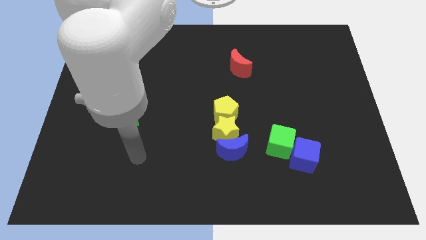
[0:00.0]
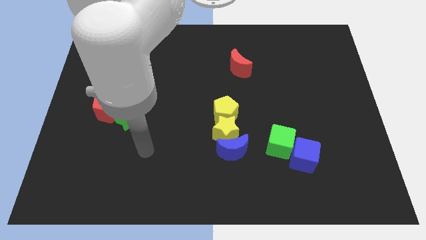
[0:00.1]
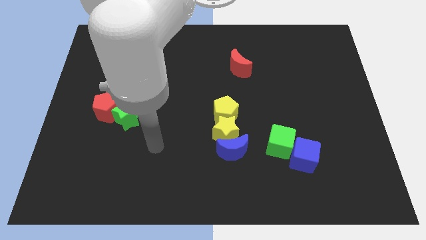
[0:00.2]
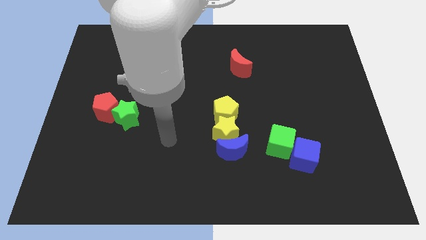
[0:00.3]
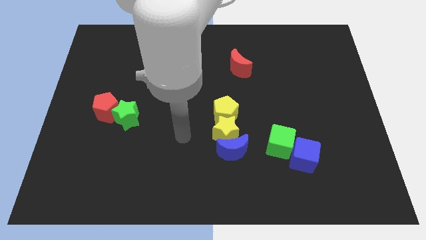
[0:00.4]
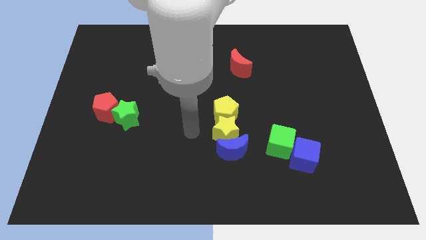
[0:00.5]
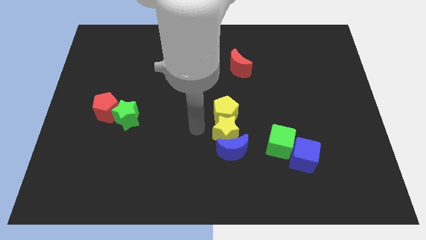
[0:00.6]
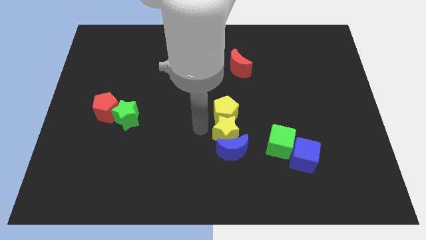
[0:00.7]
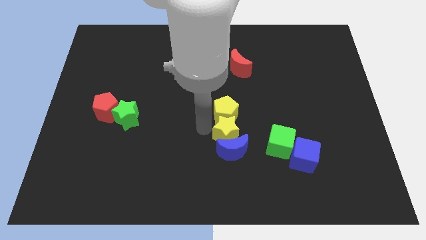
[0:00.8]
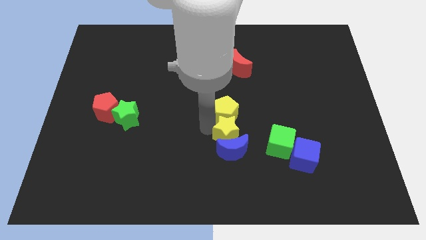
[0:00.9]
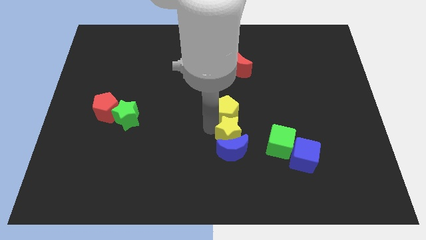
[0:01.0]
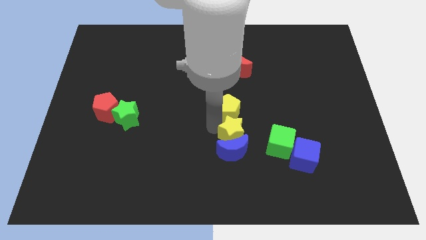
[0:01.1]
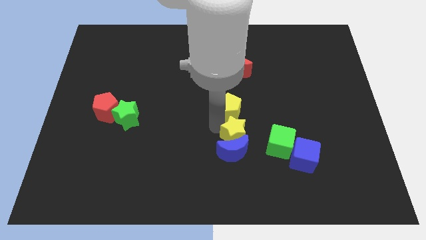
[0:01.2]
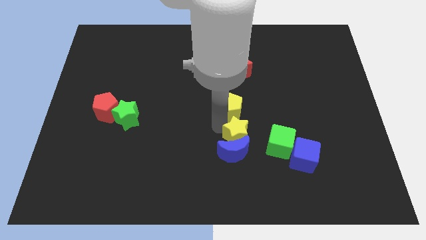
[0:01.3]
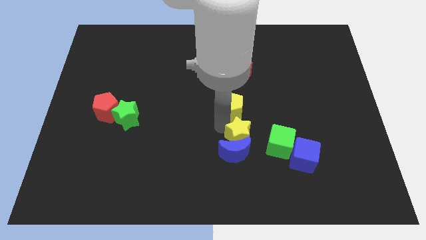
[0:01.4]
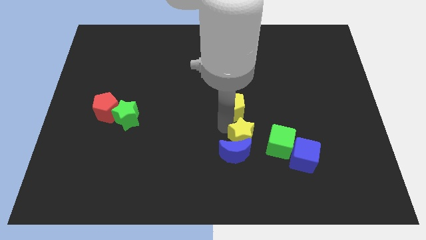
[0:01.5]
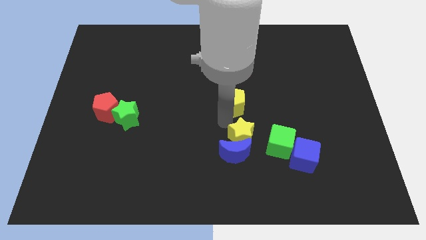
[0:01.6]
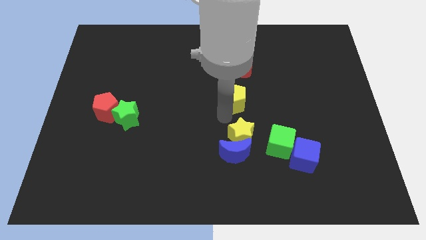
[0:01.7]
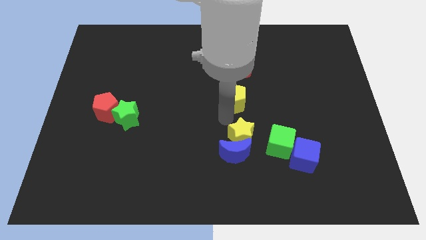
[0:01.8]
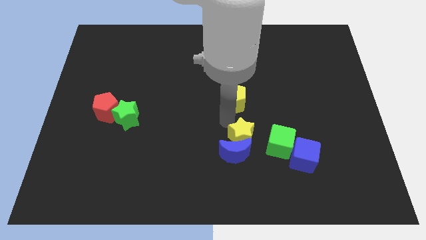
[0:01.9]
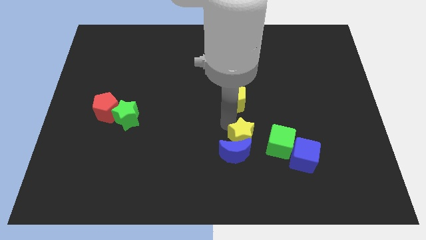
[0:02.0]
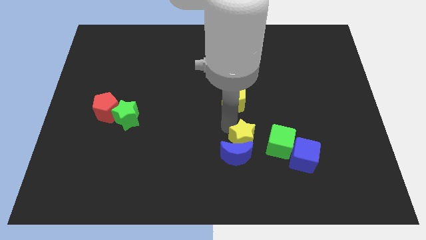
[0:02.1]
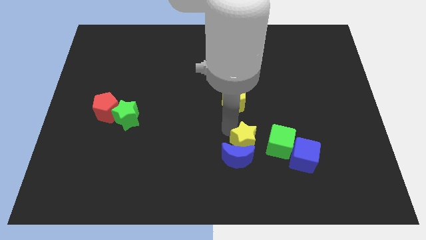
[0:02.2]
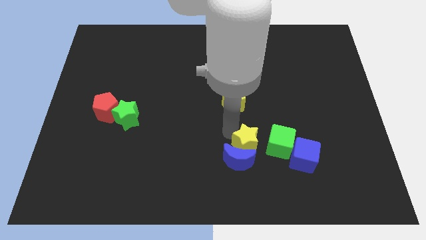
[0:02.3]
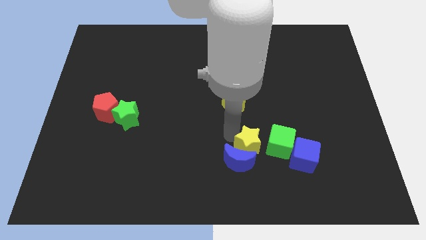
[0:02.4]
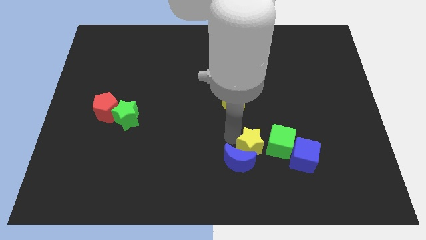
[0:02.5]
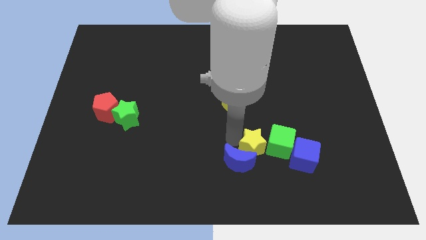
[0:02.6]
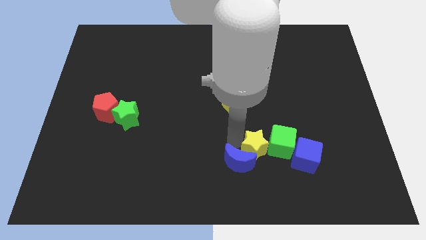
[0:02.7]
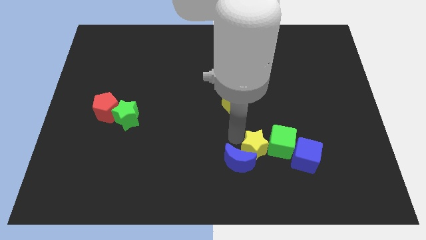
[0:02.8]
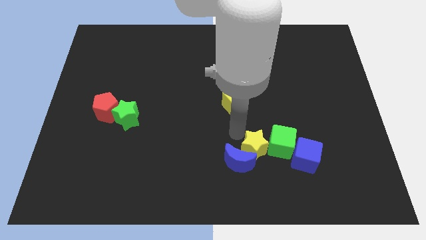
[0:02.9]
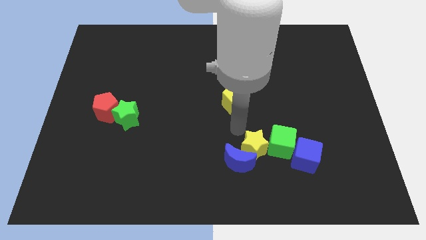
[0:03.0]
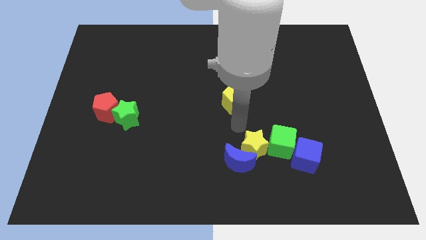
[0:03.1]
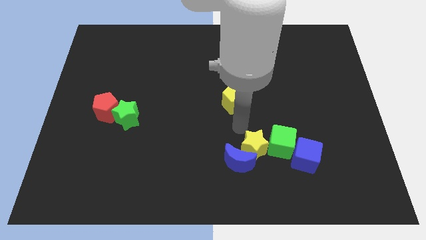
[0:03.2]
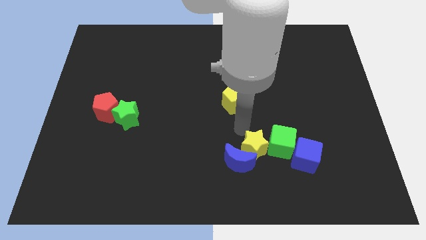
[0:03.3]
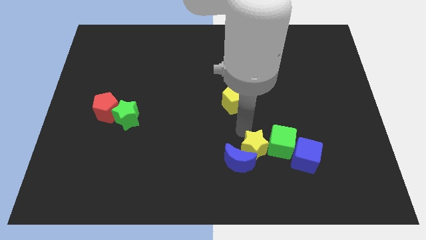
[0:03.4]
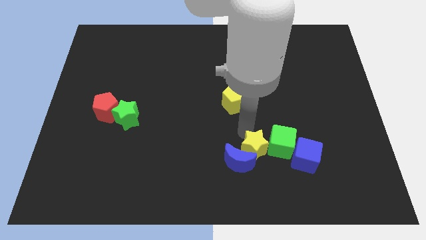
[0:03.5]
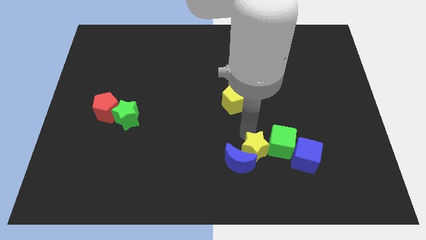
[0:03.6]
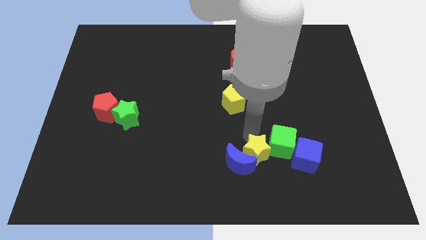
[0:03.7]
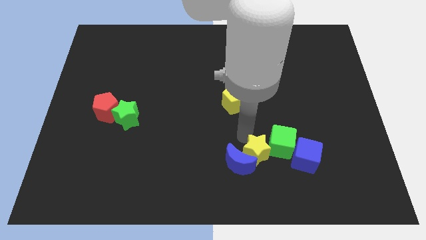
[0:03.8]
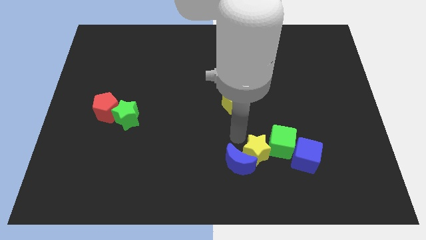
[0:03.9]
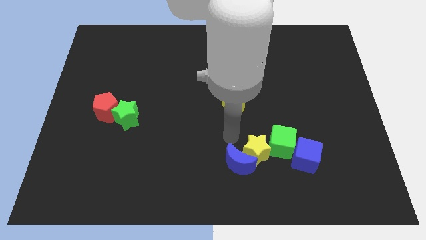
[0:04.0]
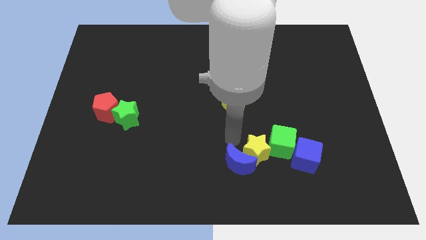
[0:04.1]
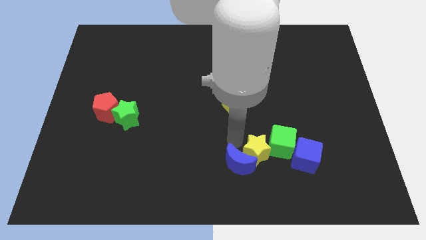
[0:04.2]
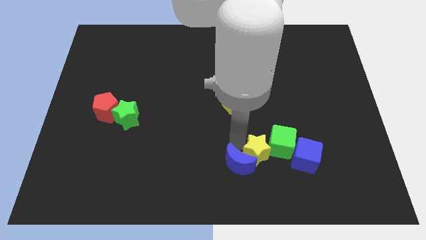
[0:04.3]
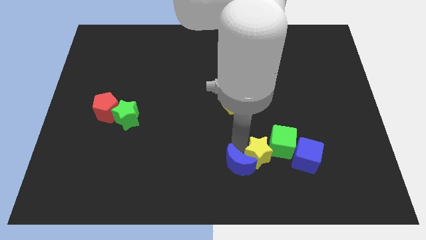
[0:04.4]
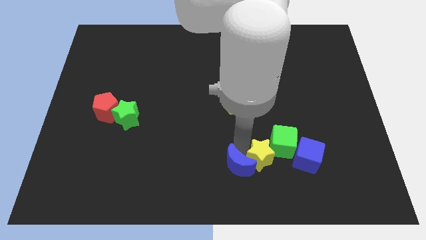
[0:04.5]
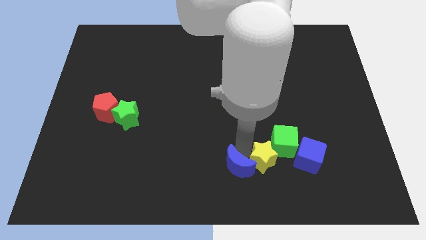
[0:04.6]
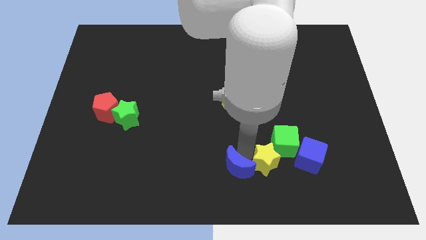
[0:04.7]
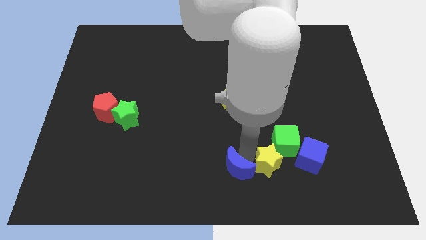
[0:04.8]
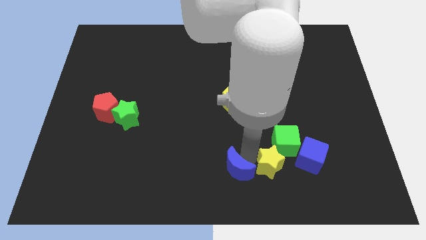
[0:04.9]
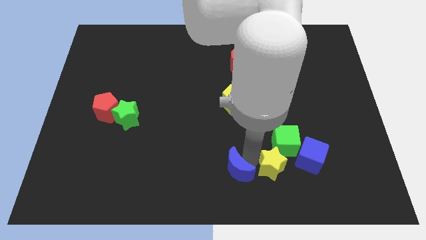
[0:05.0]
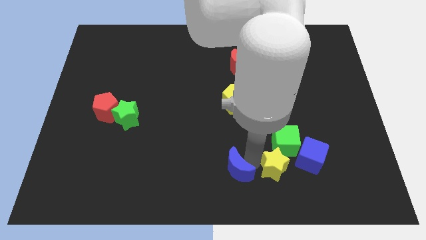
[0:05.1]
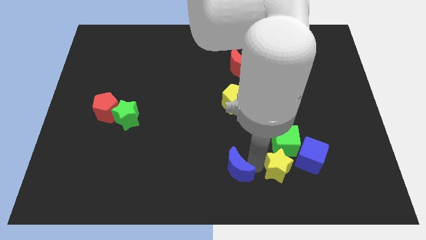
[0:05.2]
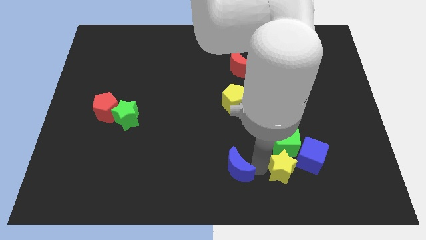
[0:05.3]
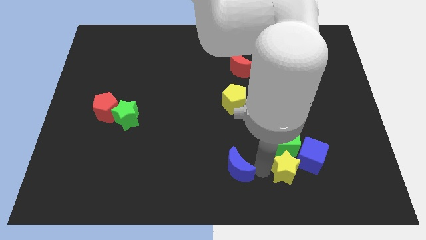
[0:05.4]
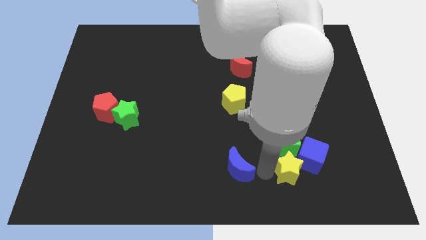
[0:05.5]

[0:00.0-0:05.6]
slide the yellow star diagonally down and to the right of the green cube

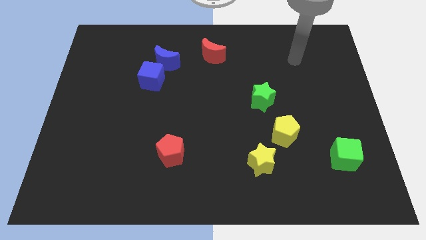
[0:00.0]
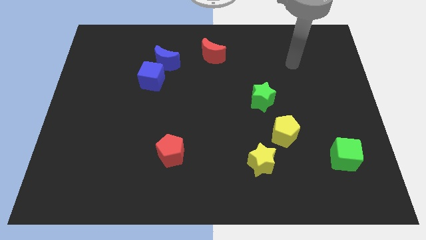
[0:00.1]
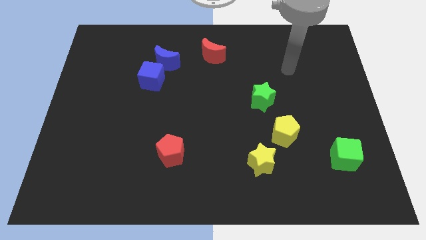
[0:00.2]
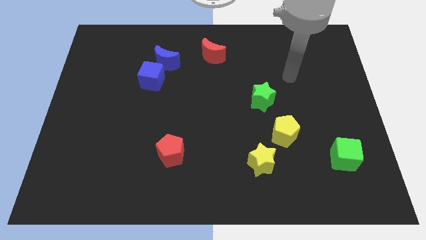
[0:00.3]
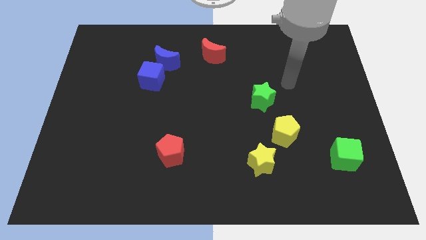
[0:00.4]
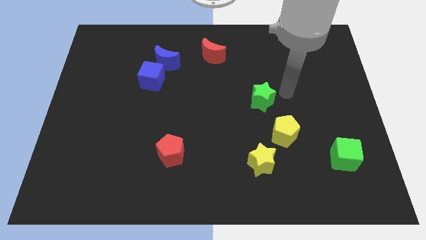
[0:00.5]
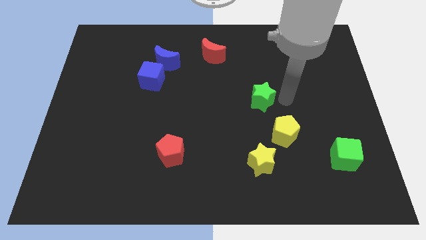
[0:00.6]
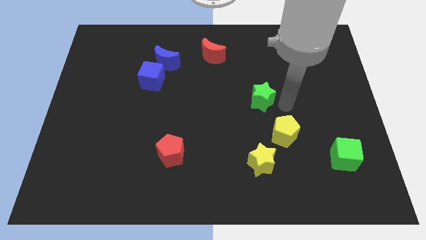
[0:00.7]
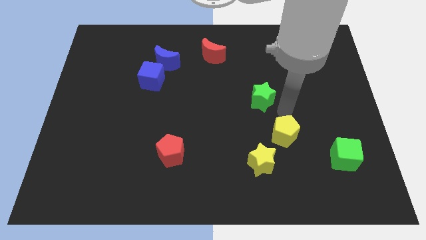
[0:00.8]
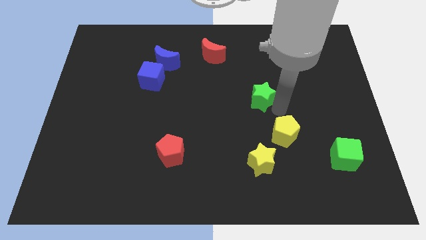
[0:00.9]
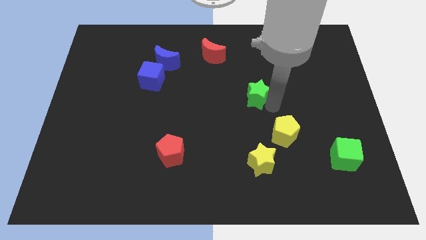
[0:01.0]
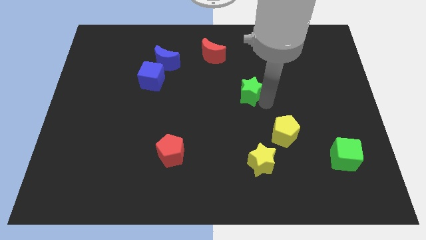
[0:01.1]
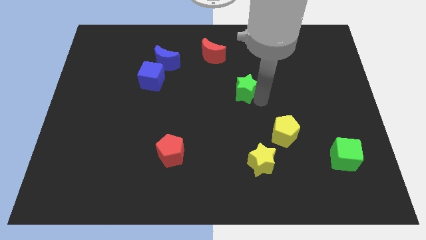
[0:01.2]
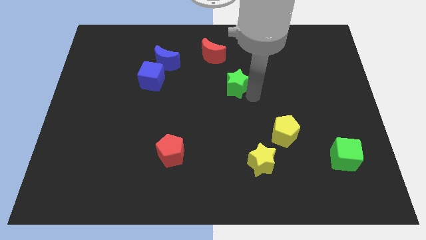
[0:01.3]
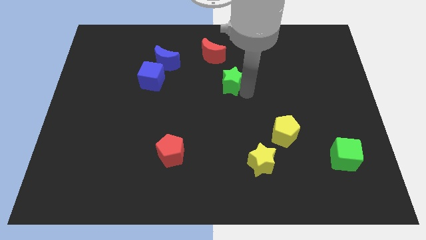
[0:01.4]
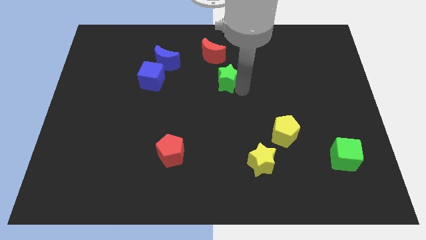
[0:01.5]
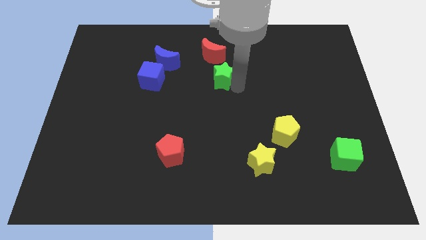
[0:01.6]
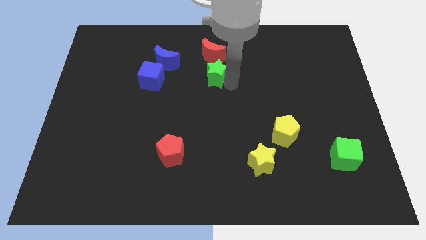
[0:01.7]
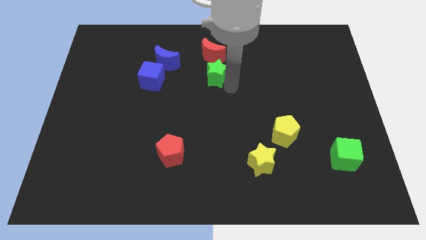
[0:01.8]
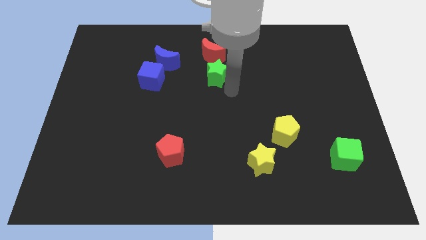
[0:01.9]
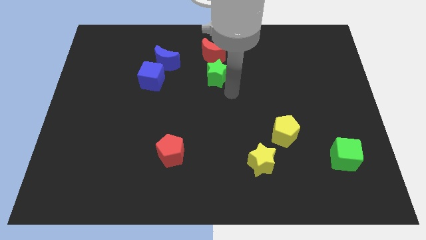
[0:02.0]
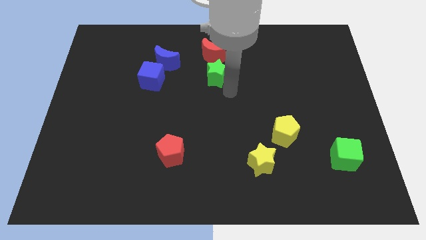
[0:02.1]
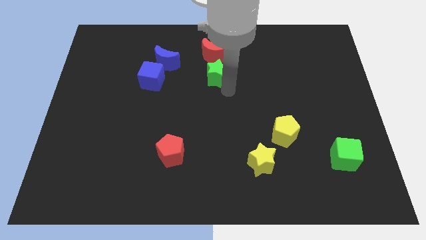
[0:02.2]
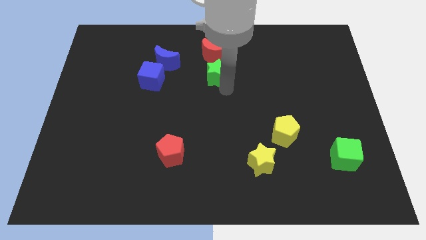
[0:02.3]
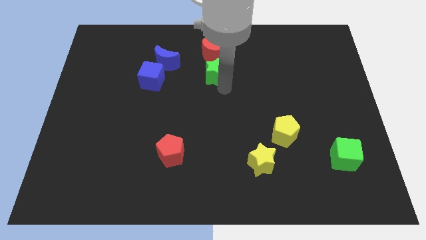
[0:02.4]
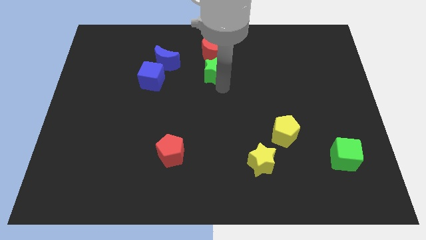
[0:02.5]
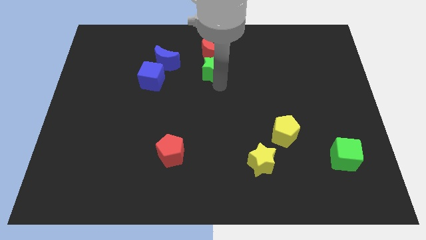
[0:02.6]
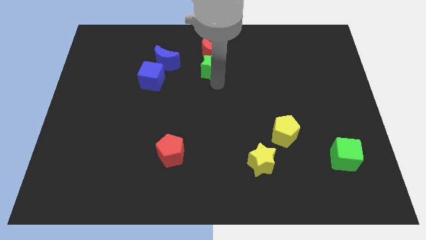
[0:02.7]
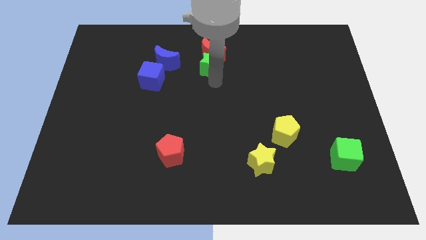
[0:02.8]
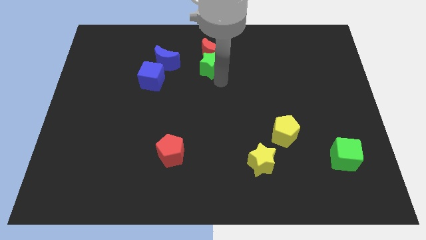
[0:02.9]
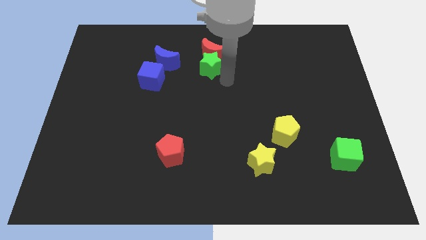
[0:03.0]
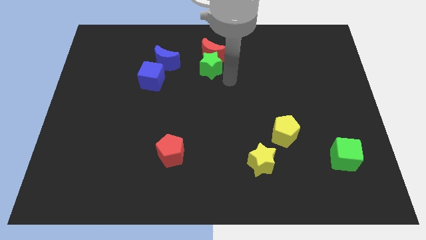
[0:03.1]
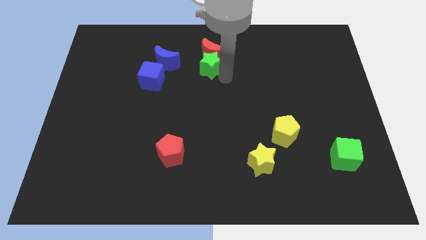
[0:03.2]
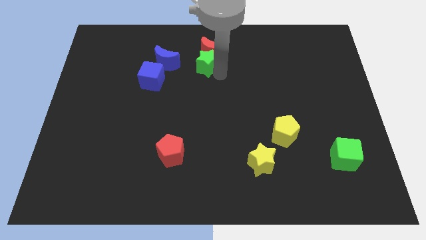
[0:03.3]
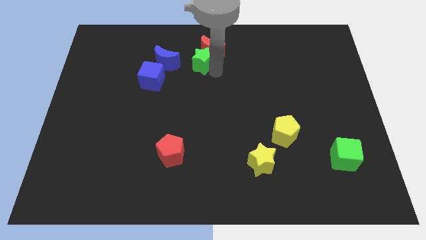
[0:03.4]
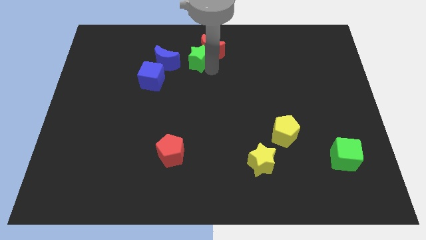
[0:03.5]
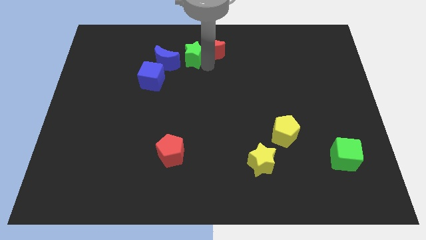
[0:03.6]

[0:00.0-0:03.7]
slide the green star to the top right of the blue cube
